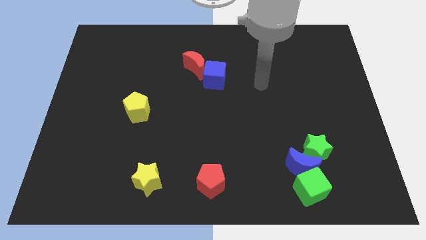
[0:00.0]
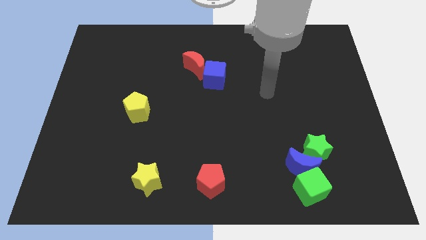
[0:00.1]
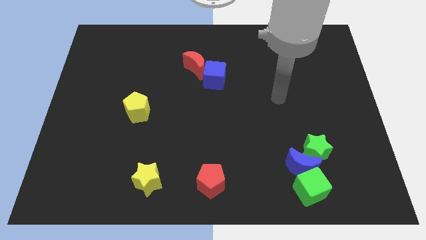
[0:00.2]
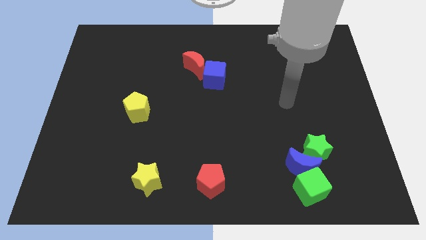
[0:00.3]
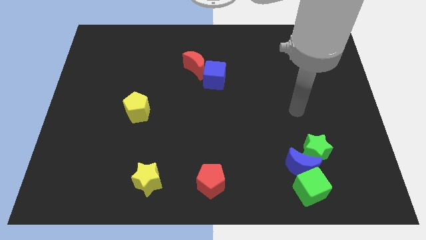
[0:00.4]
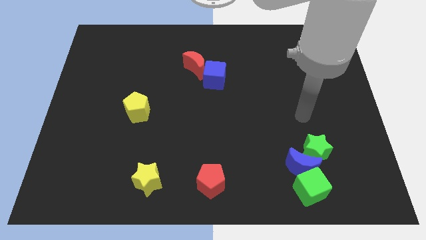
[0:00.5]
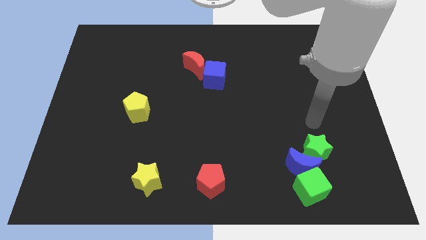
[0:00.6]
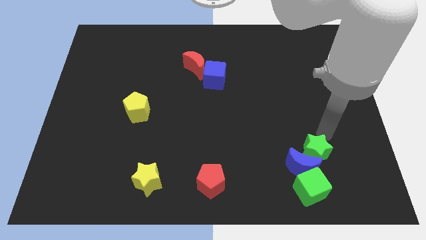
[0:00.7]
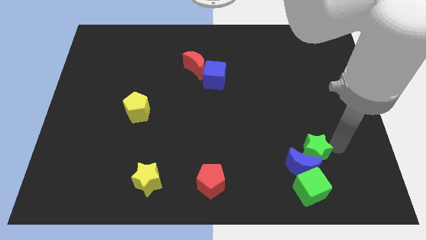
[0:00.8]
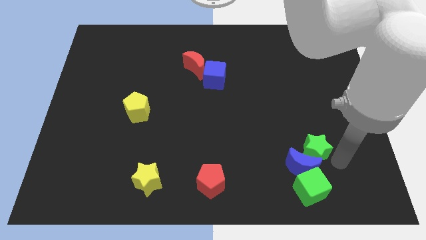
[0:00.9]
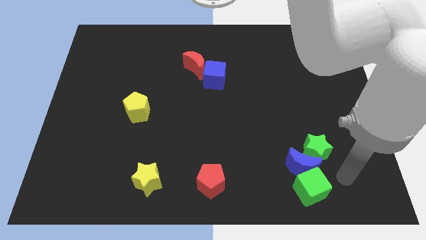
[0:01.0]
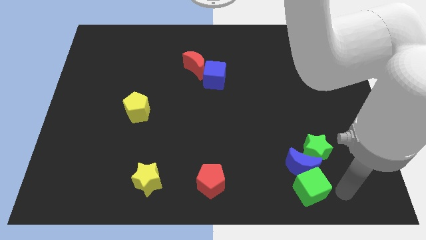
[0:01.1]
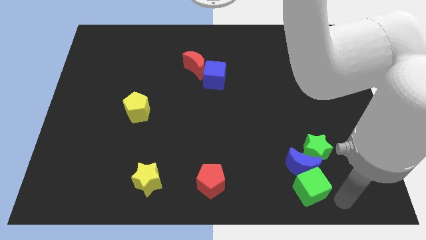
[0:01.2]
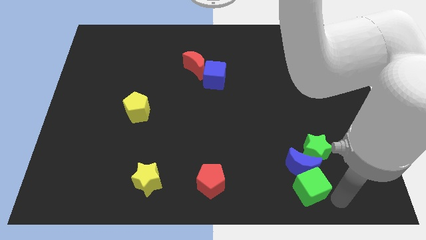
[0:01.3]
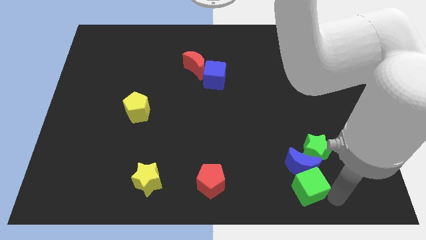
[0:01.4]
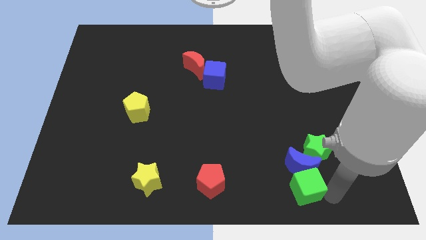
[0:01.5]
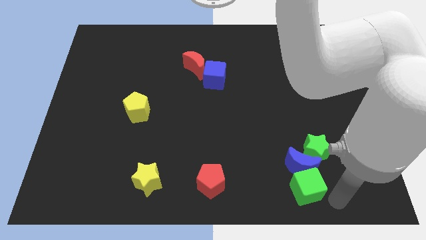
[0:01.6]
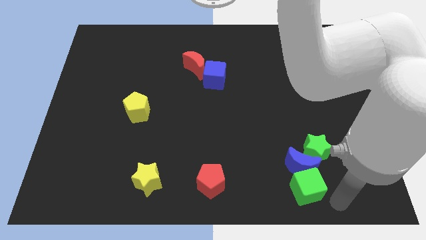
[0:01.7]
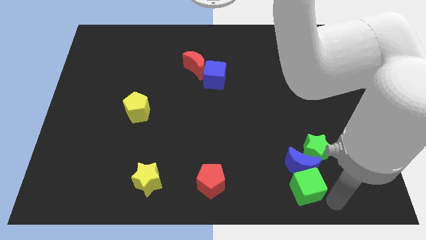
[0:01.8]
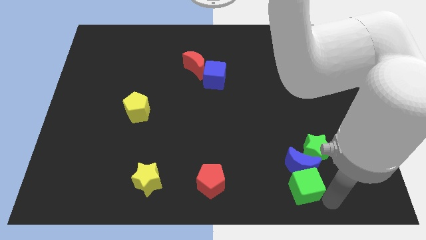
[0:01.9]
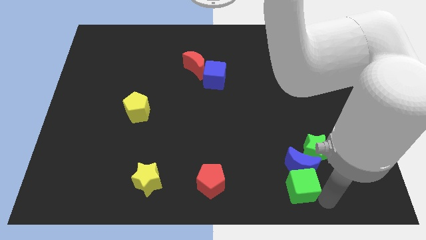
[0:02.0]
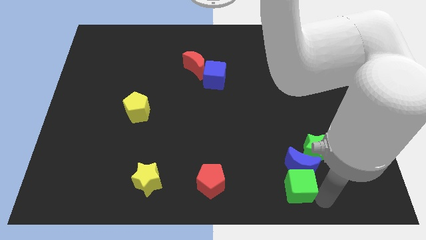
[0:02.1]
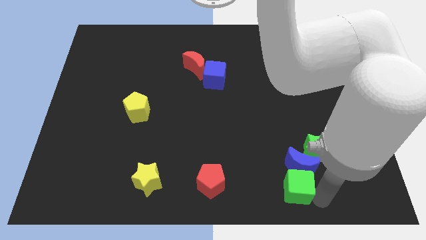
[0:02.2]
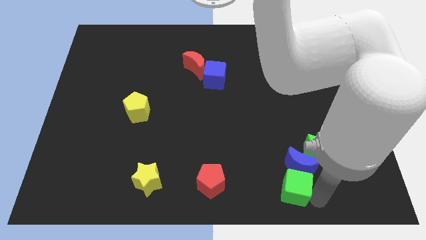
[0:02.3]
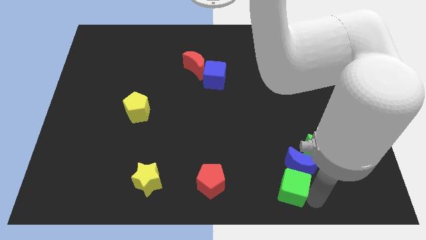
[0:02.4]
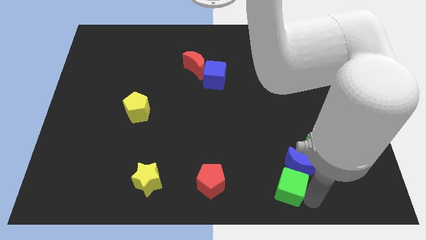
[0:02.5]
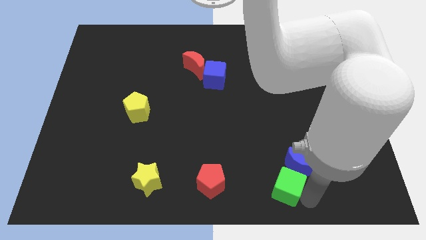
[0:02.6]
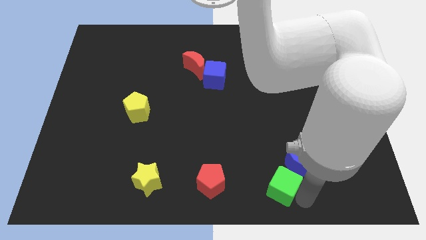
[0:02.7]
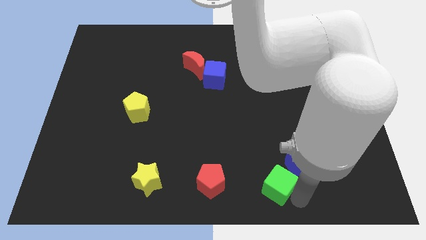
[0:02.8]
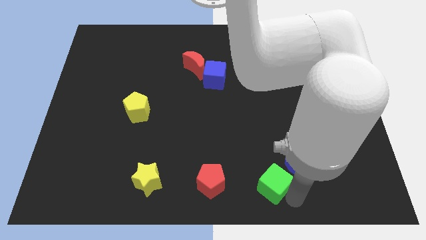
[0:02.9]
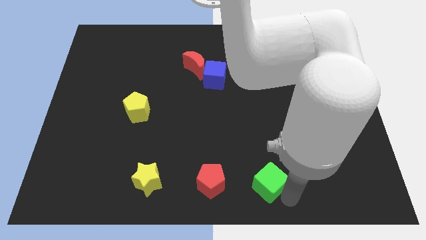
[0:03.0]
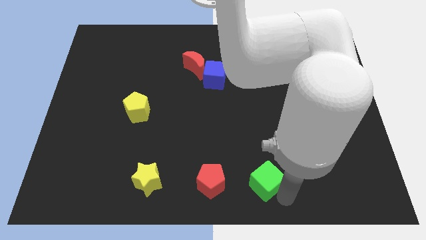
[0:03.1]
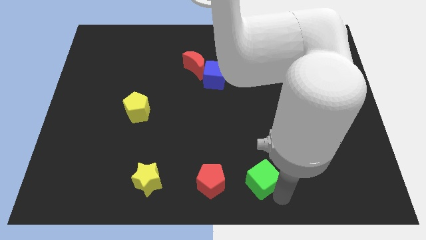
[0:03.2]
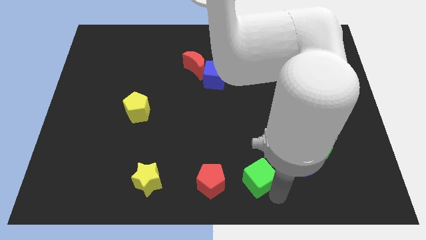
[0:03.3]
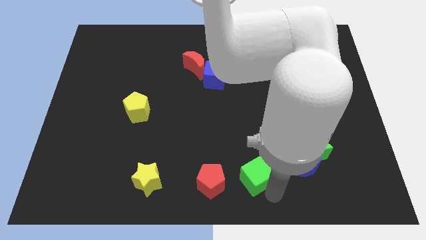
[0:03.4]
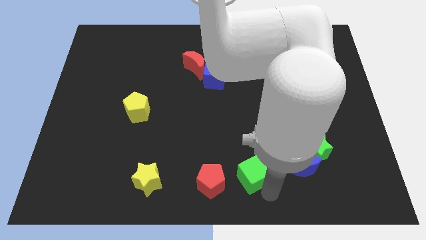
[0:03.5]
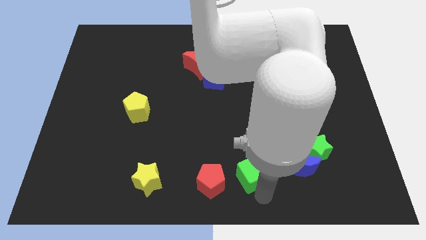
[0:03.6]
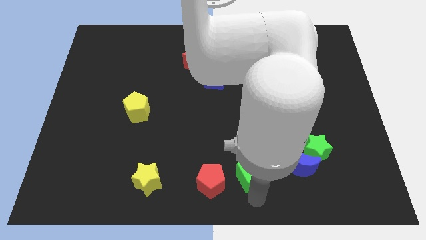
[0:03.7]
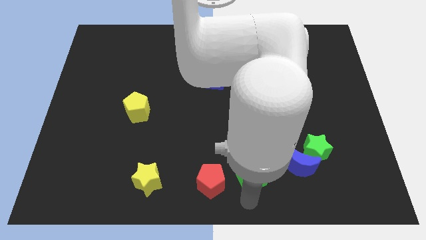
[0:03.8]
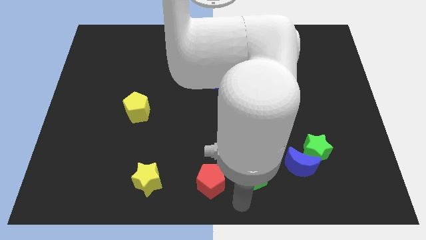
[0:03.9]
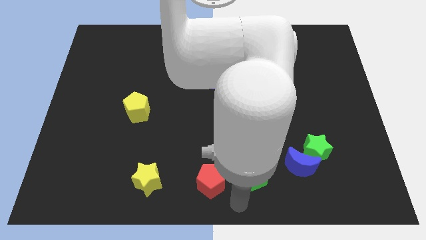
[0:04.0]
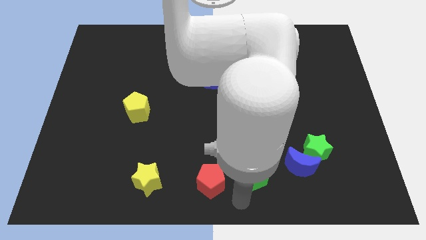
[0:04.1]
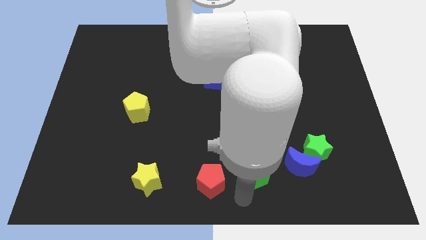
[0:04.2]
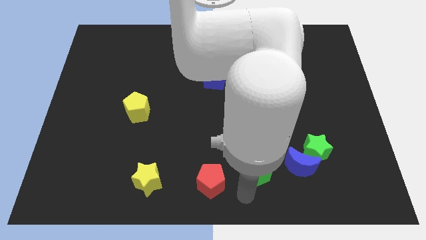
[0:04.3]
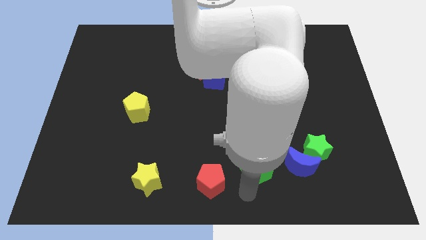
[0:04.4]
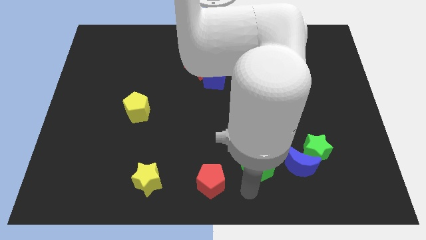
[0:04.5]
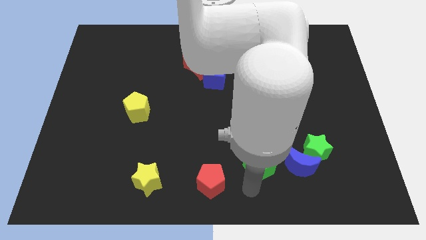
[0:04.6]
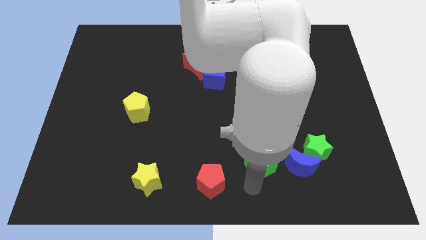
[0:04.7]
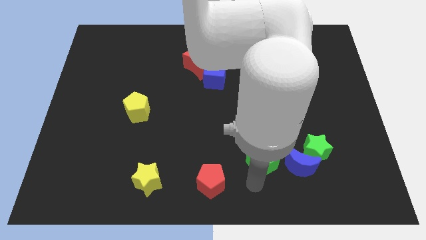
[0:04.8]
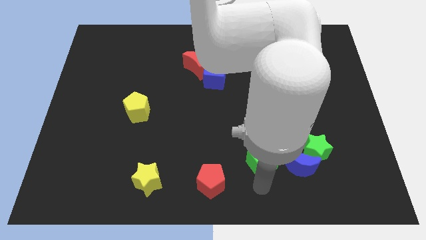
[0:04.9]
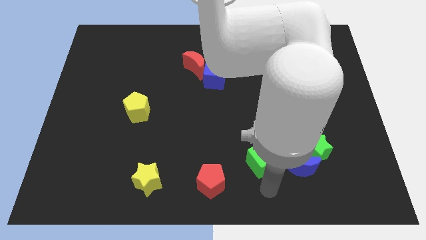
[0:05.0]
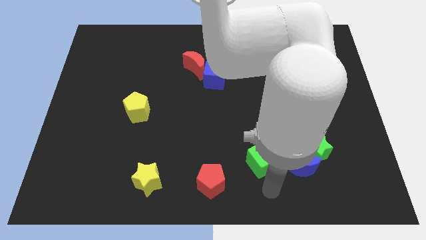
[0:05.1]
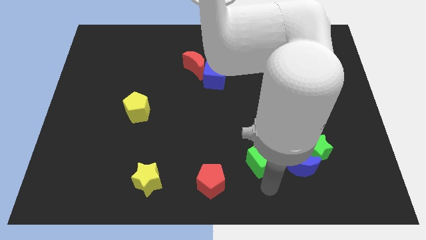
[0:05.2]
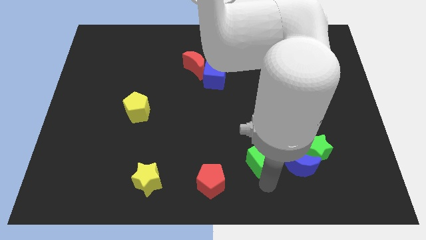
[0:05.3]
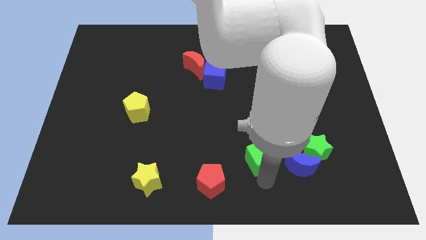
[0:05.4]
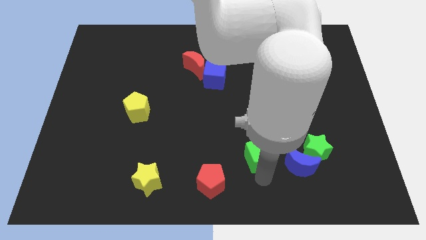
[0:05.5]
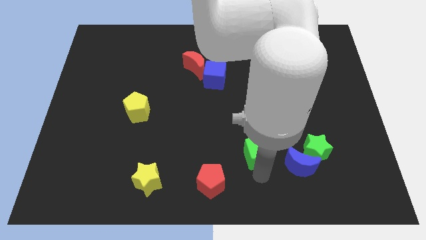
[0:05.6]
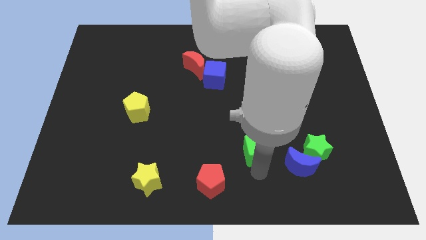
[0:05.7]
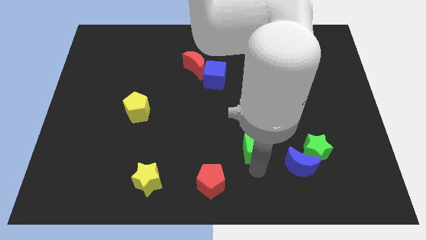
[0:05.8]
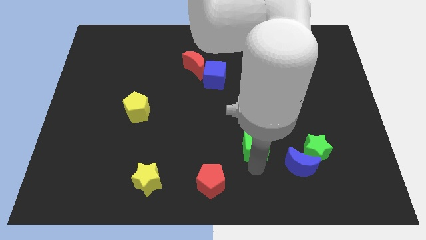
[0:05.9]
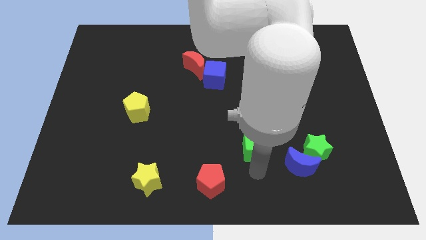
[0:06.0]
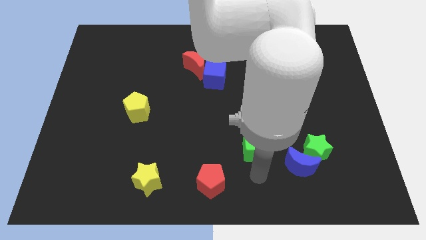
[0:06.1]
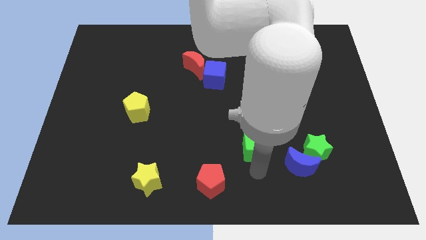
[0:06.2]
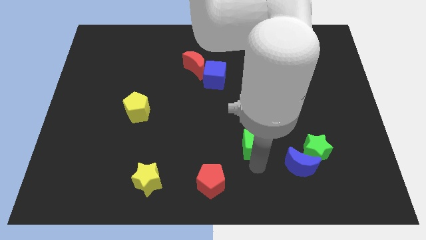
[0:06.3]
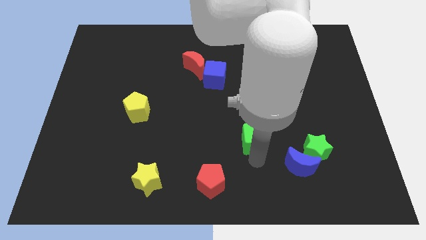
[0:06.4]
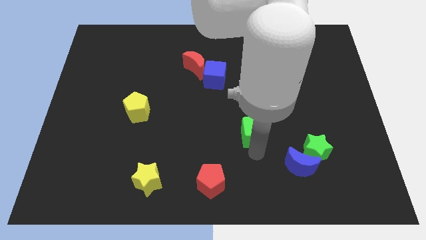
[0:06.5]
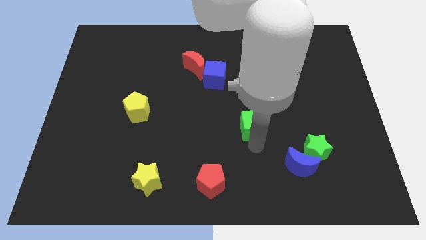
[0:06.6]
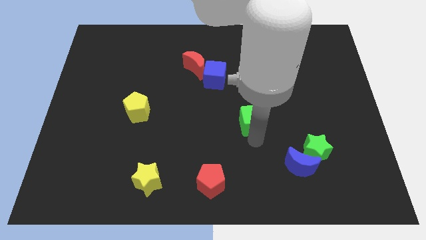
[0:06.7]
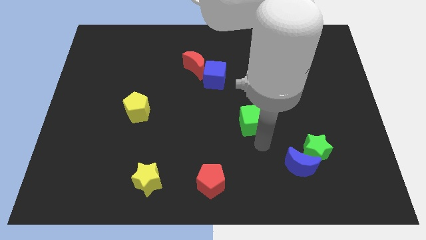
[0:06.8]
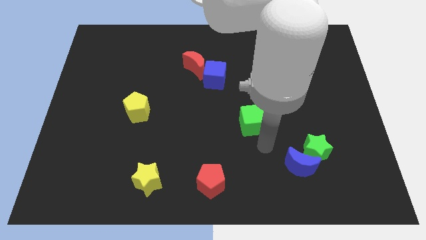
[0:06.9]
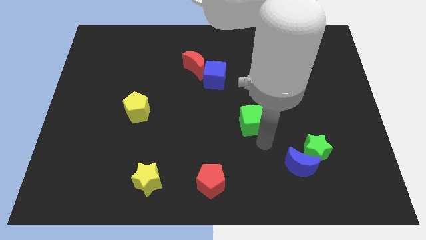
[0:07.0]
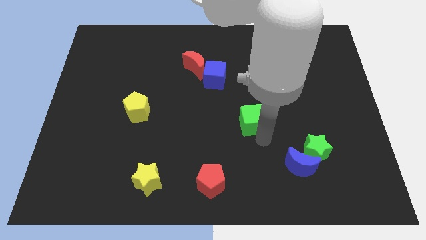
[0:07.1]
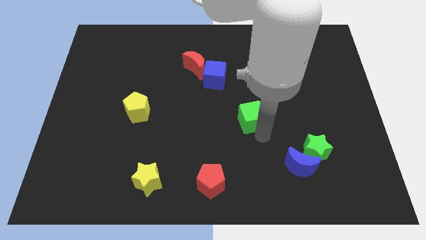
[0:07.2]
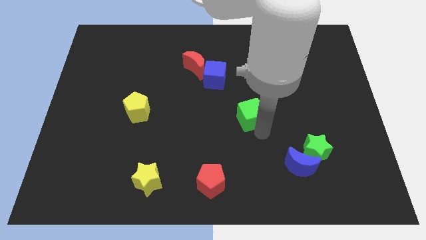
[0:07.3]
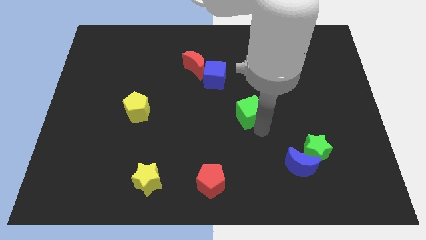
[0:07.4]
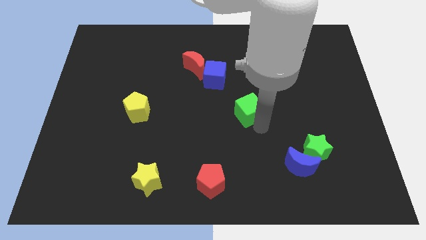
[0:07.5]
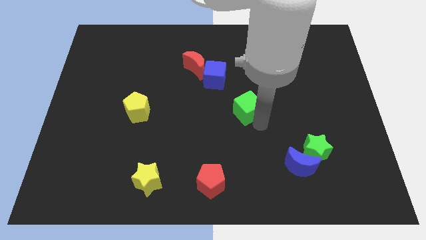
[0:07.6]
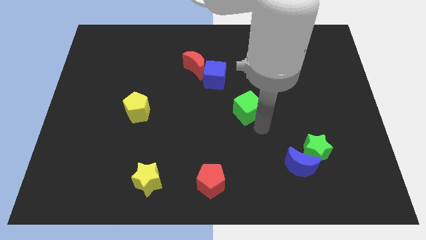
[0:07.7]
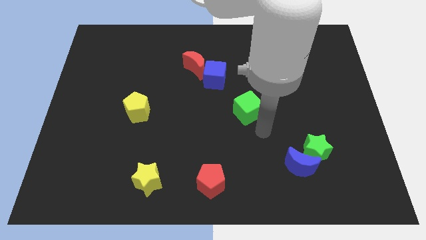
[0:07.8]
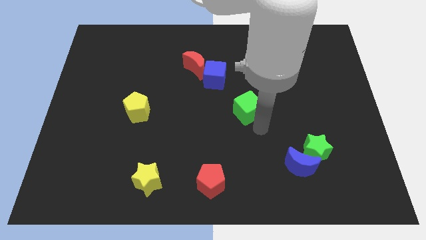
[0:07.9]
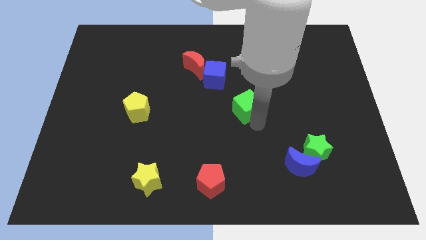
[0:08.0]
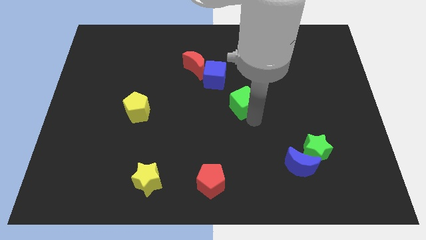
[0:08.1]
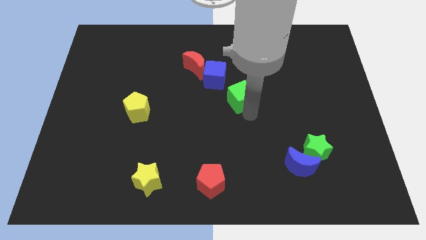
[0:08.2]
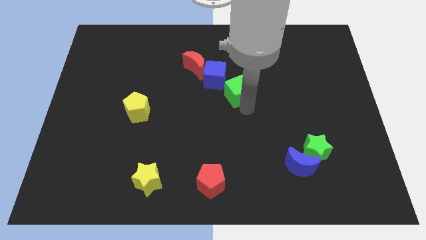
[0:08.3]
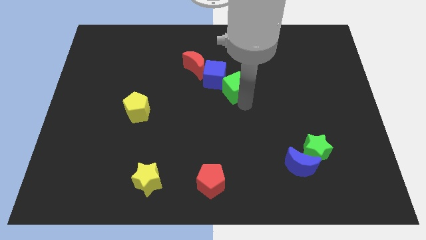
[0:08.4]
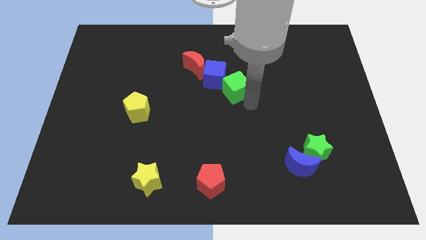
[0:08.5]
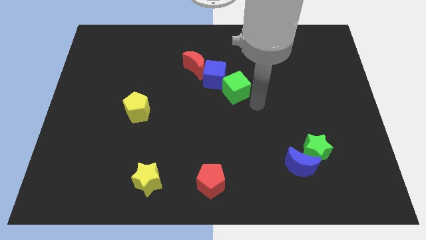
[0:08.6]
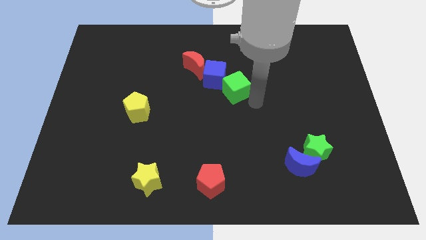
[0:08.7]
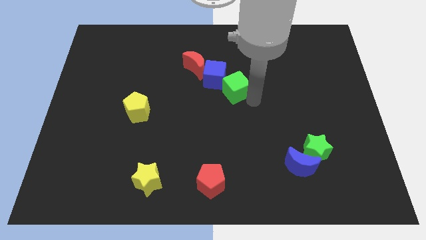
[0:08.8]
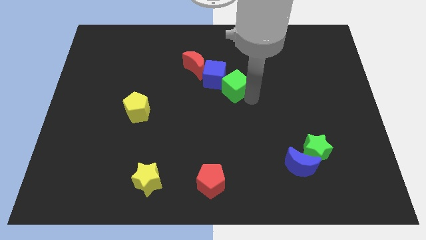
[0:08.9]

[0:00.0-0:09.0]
move the green cube close to the blue cube
